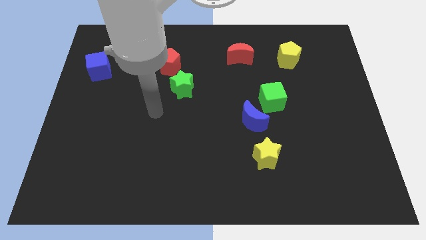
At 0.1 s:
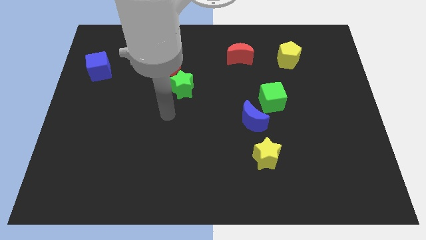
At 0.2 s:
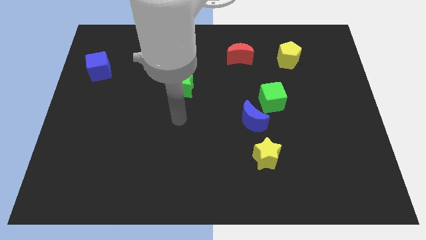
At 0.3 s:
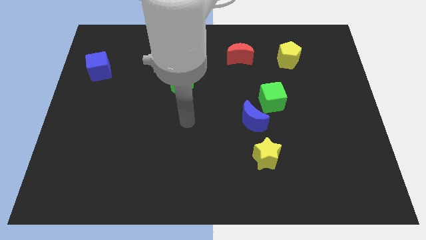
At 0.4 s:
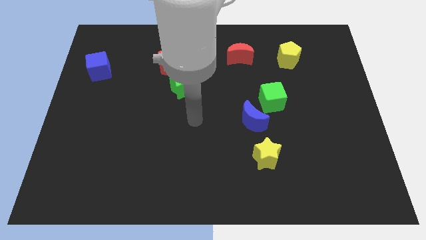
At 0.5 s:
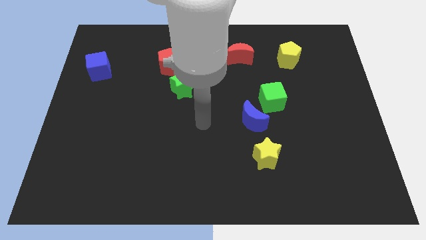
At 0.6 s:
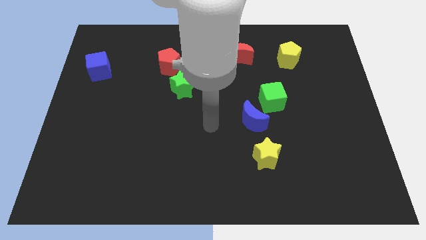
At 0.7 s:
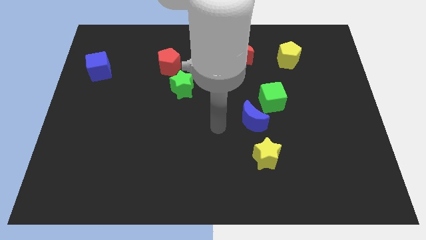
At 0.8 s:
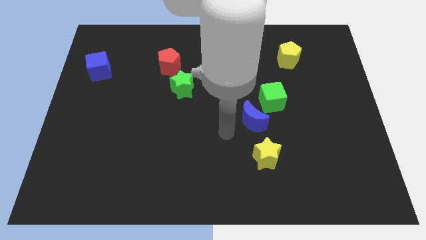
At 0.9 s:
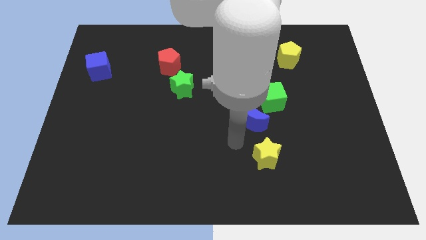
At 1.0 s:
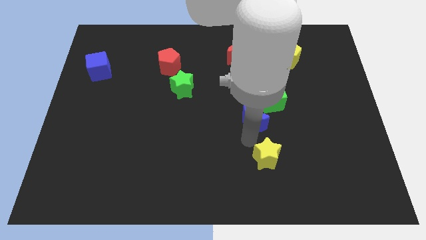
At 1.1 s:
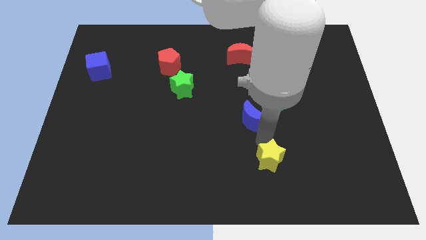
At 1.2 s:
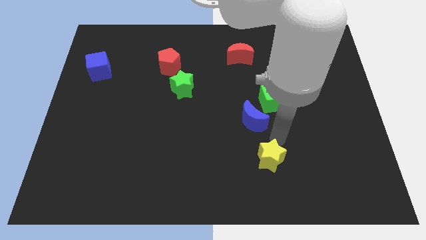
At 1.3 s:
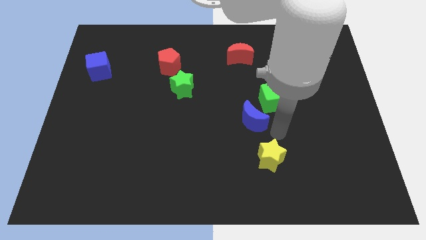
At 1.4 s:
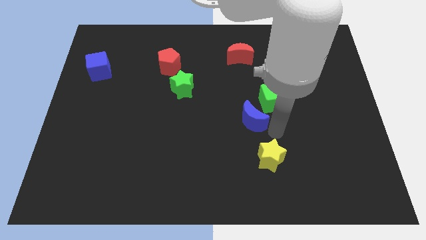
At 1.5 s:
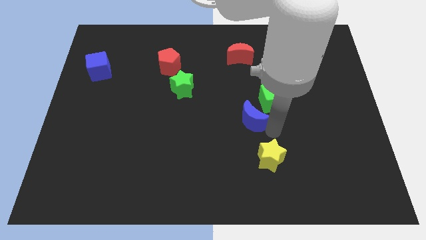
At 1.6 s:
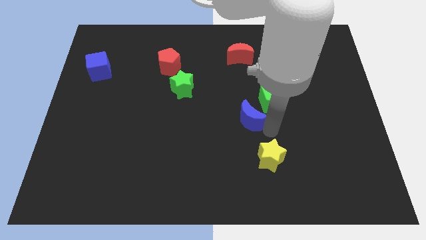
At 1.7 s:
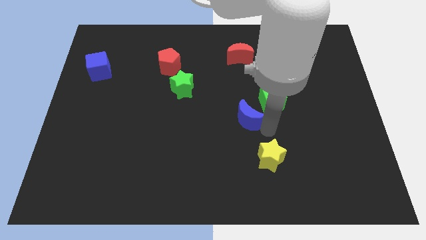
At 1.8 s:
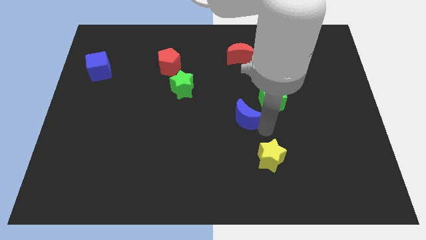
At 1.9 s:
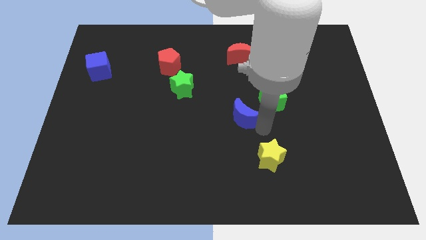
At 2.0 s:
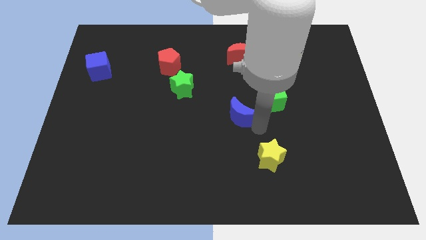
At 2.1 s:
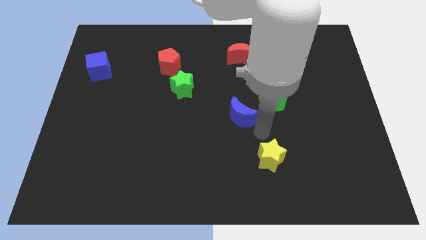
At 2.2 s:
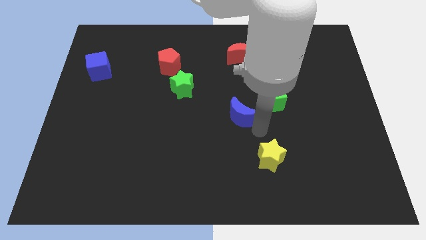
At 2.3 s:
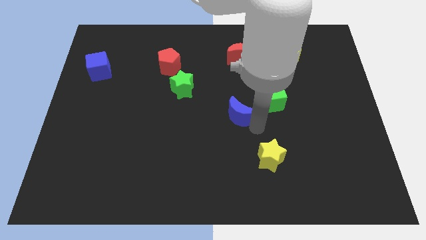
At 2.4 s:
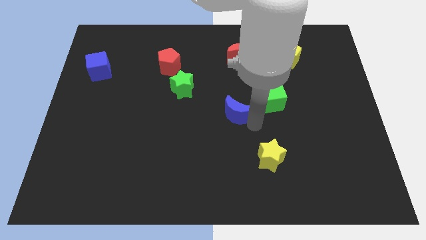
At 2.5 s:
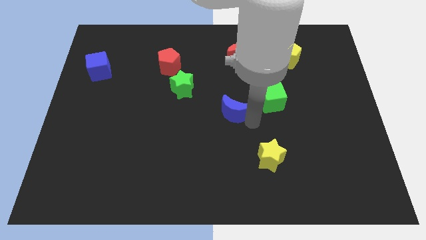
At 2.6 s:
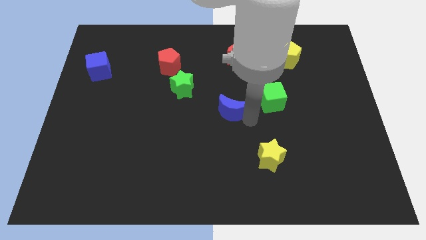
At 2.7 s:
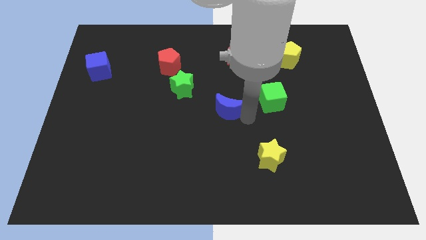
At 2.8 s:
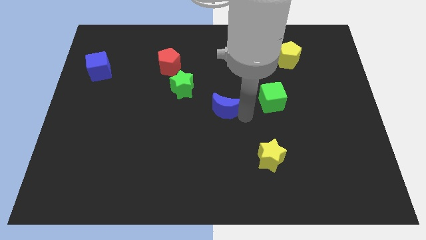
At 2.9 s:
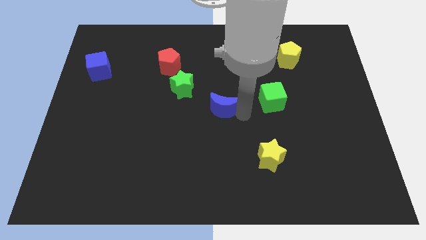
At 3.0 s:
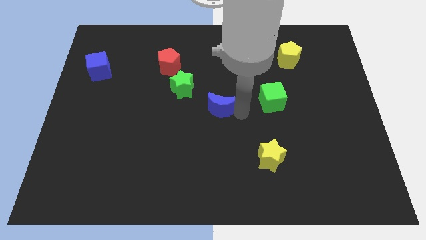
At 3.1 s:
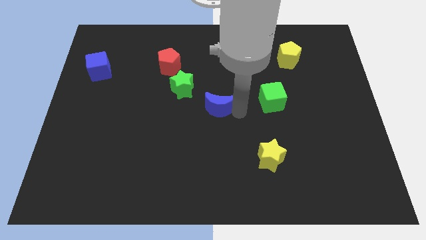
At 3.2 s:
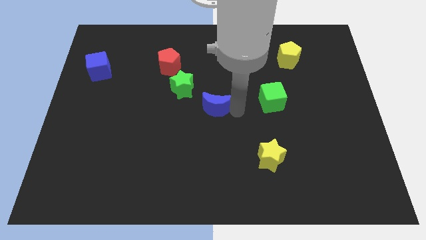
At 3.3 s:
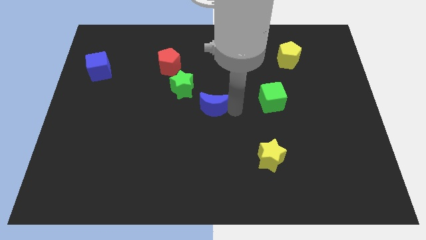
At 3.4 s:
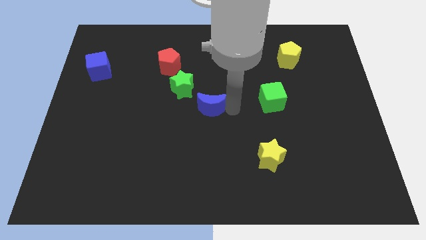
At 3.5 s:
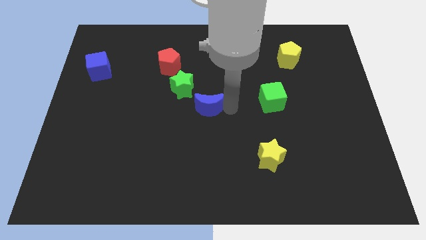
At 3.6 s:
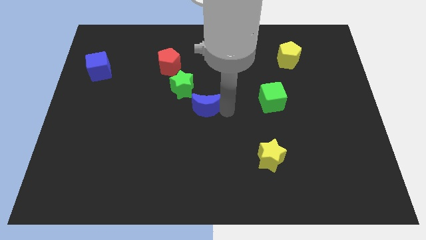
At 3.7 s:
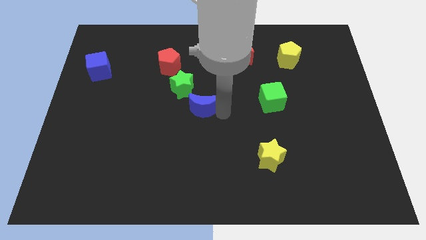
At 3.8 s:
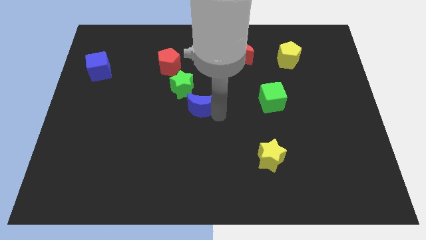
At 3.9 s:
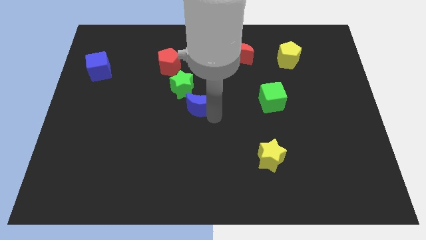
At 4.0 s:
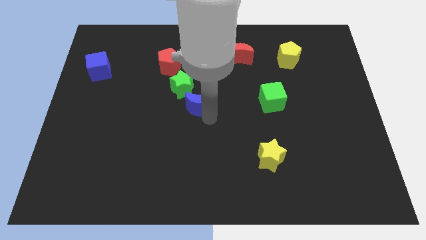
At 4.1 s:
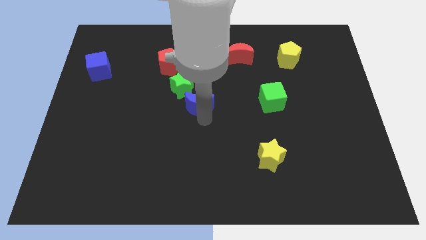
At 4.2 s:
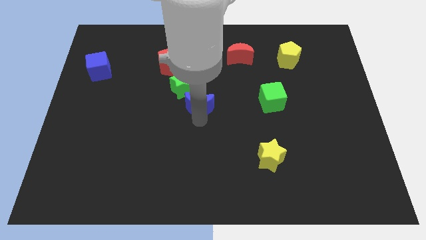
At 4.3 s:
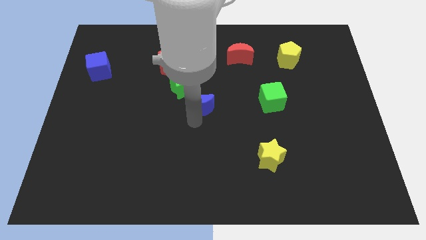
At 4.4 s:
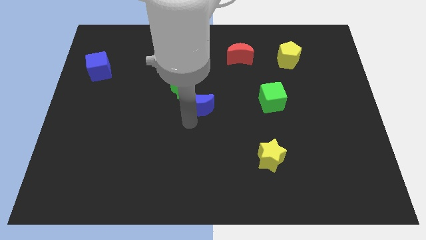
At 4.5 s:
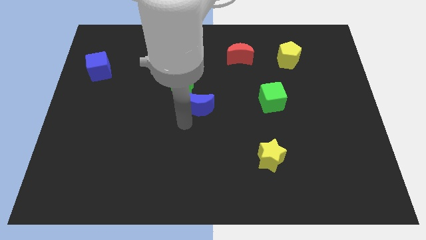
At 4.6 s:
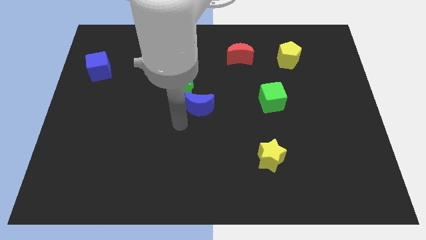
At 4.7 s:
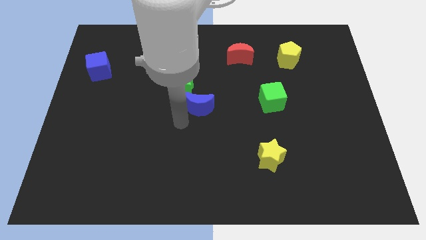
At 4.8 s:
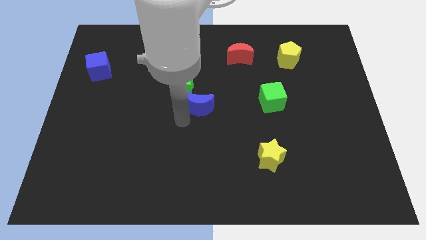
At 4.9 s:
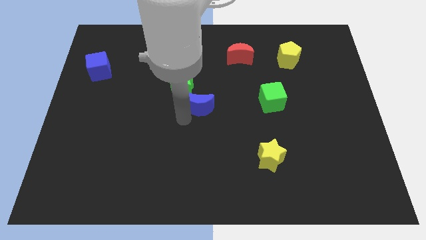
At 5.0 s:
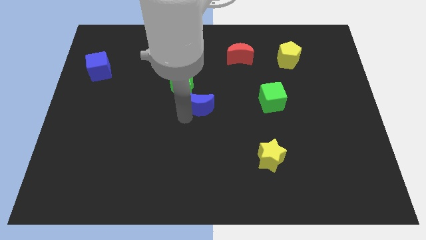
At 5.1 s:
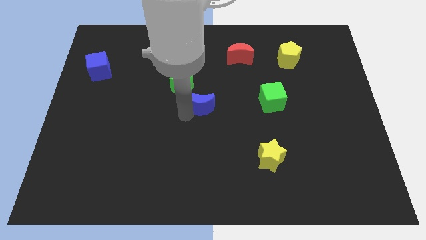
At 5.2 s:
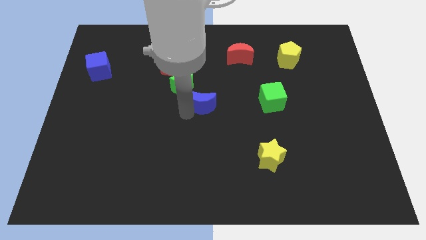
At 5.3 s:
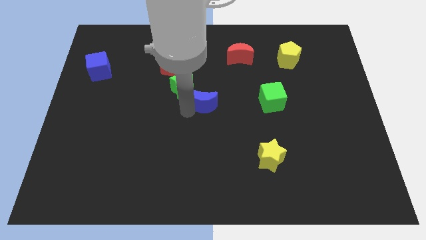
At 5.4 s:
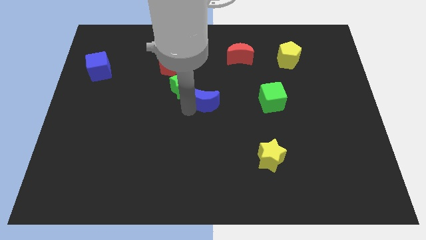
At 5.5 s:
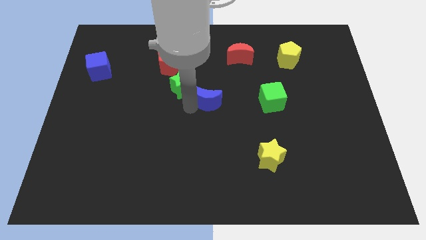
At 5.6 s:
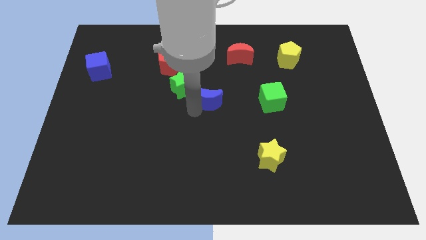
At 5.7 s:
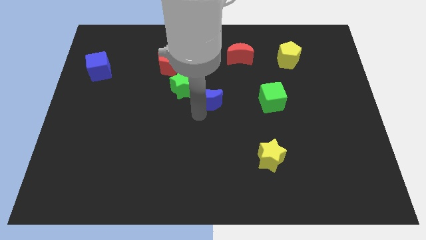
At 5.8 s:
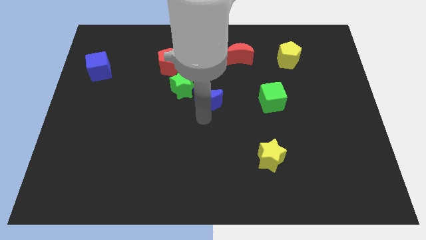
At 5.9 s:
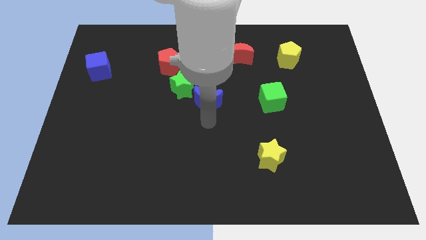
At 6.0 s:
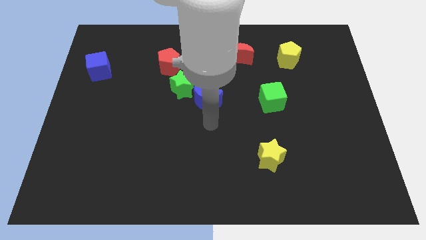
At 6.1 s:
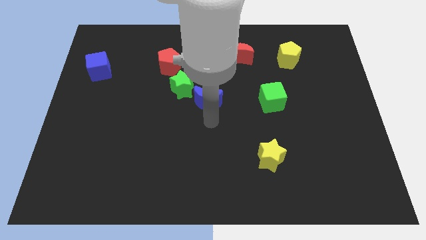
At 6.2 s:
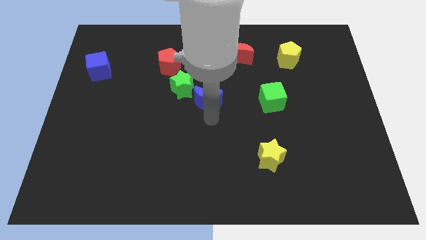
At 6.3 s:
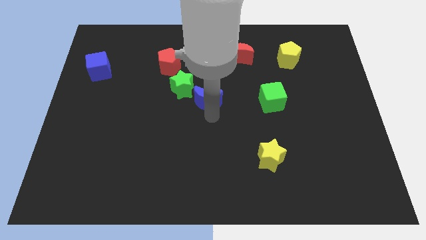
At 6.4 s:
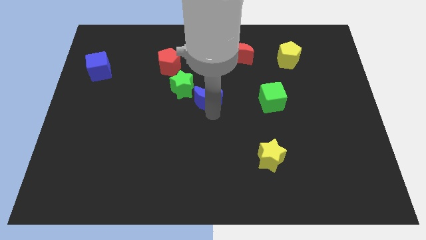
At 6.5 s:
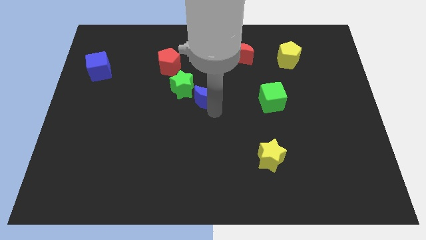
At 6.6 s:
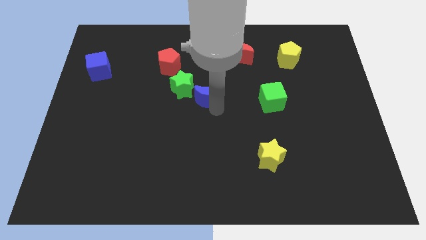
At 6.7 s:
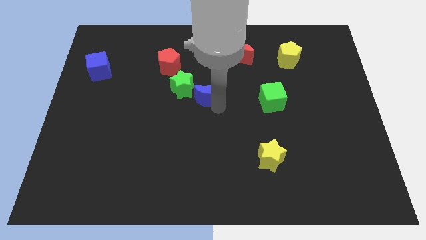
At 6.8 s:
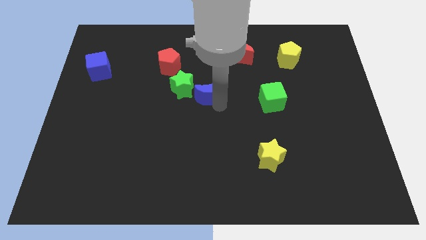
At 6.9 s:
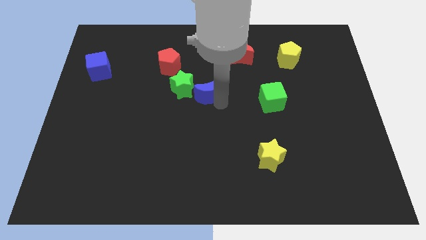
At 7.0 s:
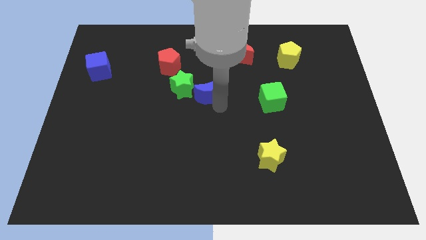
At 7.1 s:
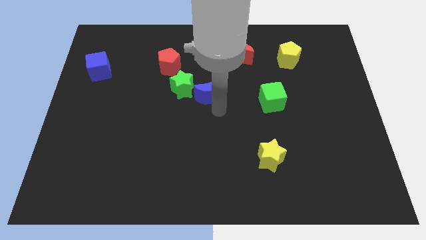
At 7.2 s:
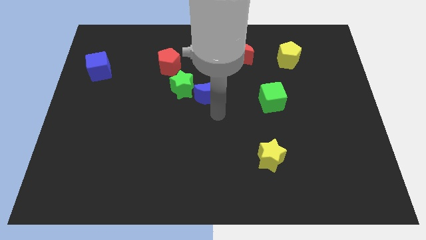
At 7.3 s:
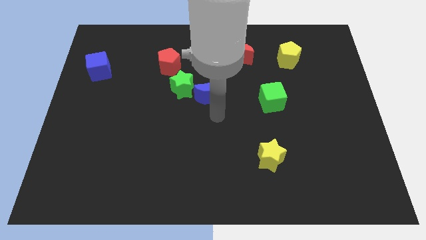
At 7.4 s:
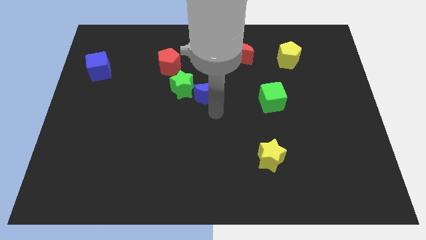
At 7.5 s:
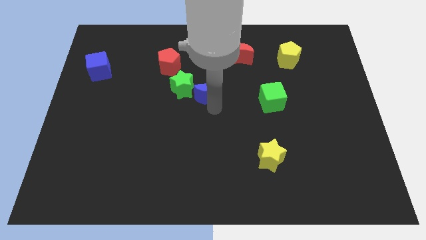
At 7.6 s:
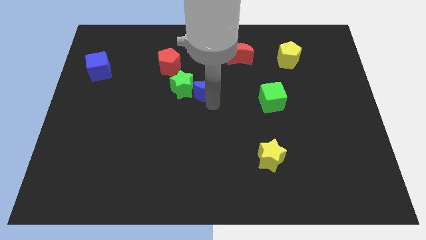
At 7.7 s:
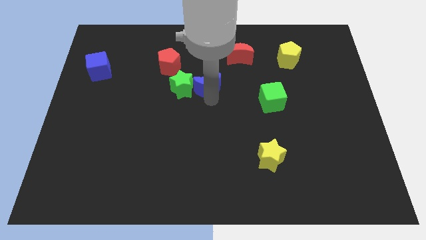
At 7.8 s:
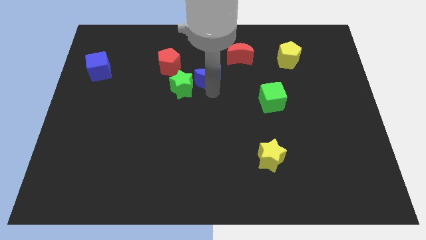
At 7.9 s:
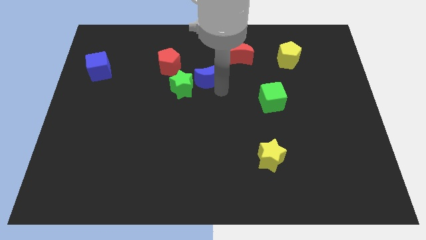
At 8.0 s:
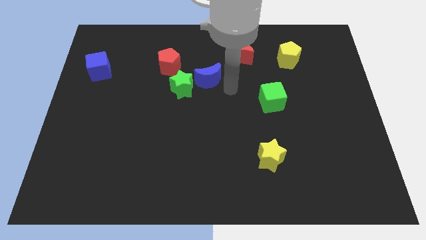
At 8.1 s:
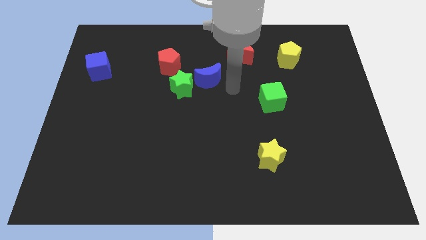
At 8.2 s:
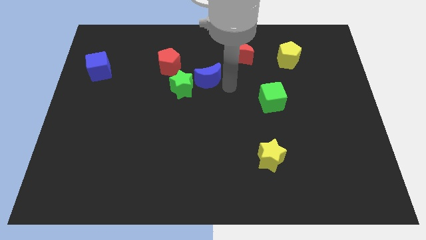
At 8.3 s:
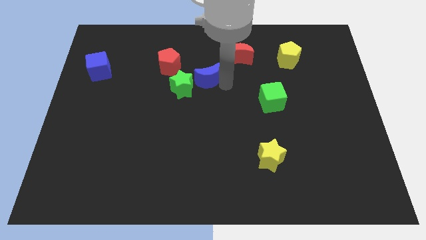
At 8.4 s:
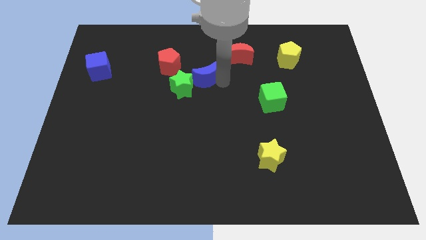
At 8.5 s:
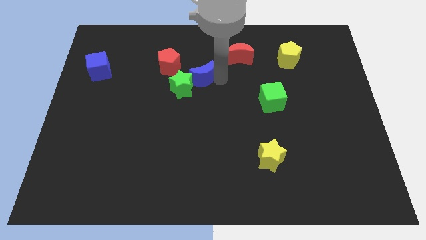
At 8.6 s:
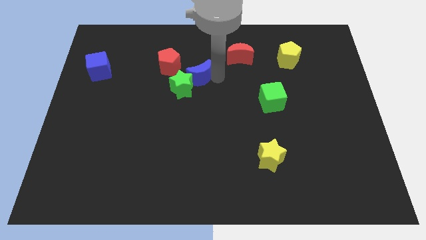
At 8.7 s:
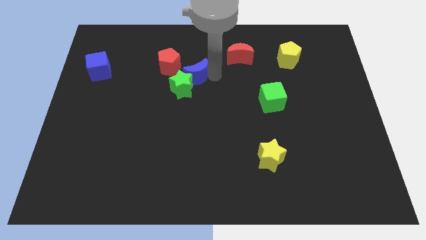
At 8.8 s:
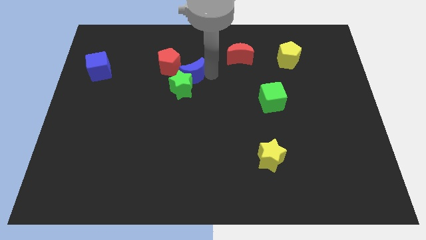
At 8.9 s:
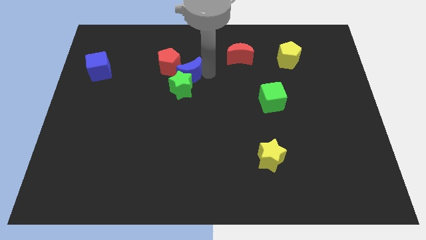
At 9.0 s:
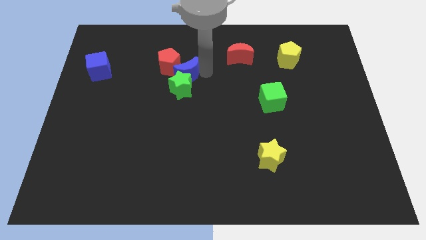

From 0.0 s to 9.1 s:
slide the blue moon to the red pentagon
